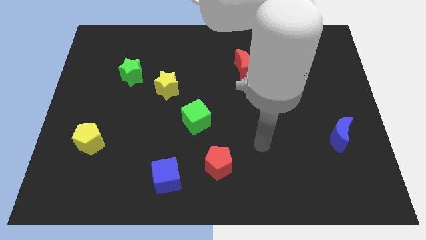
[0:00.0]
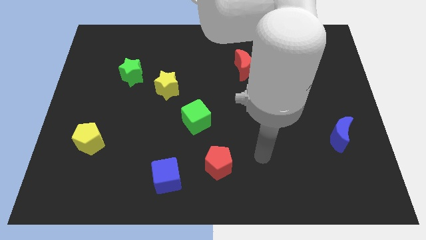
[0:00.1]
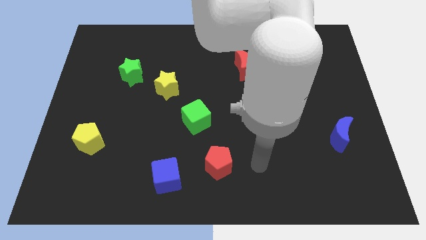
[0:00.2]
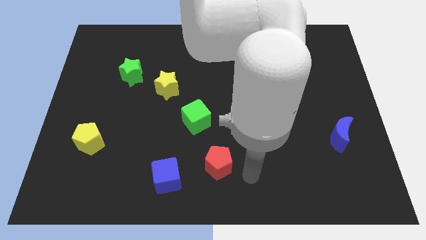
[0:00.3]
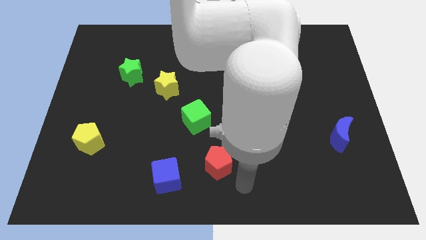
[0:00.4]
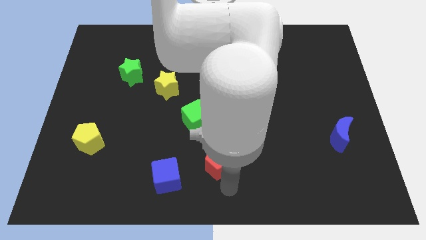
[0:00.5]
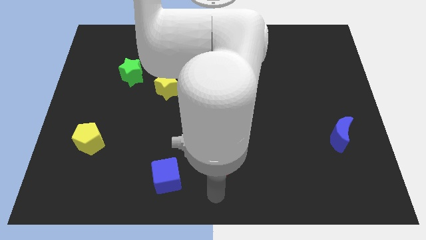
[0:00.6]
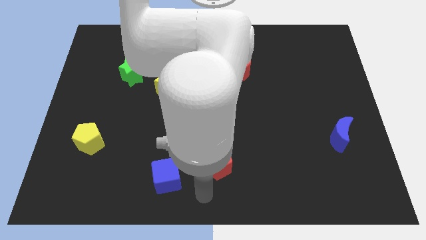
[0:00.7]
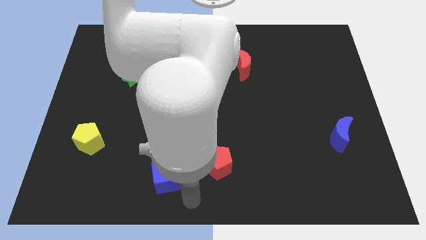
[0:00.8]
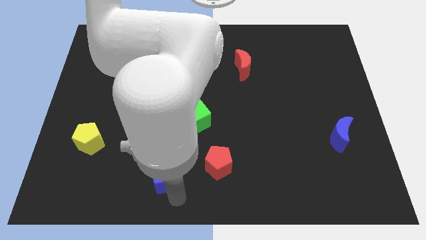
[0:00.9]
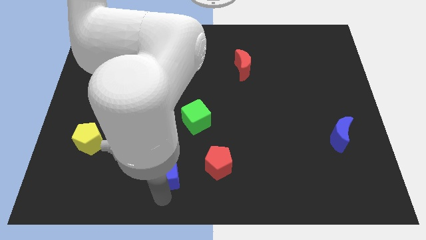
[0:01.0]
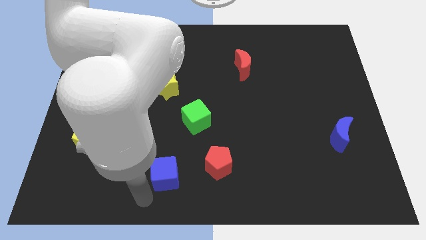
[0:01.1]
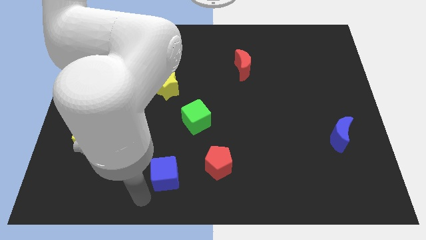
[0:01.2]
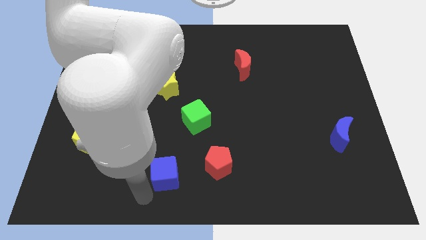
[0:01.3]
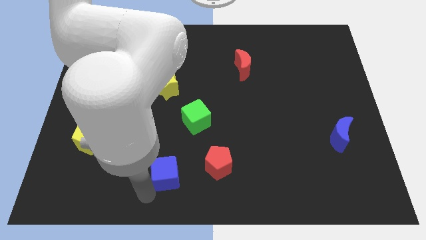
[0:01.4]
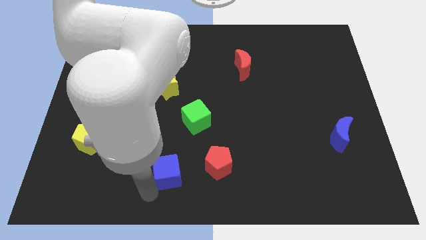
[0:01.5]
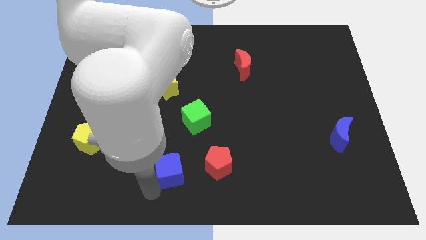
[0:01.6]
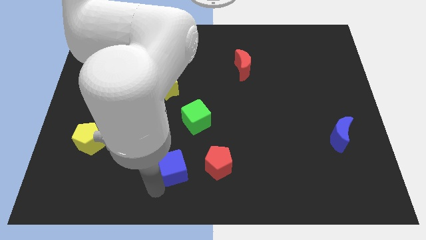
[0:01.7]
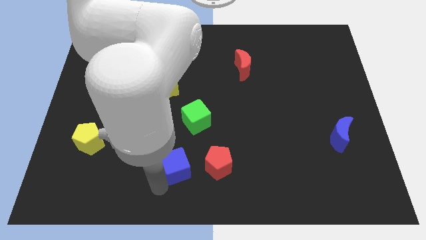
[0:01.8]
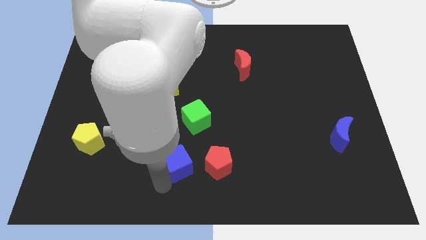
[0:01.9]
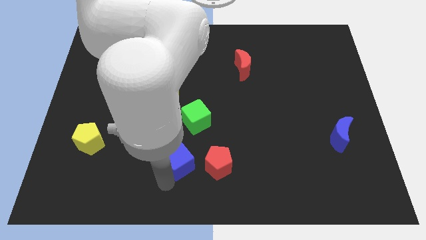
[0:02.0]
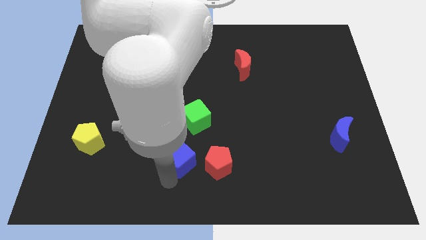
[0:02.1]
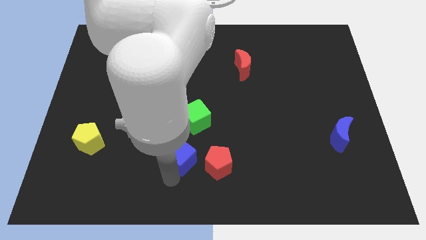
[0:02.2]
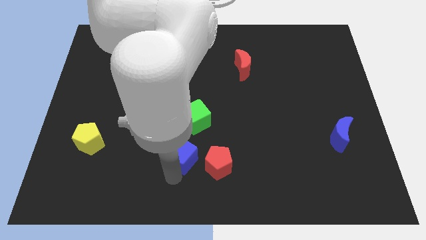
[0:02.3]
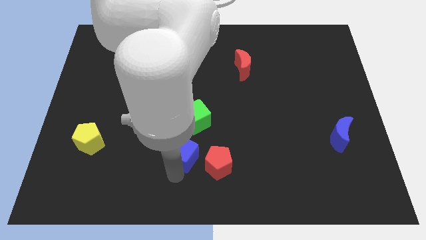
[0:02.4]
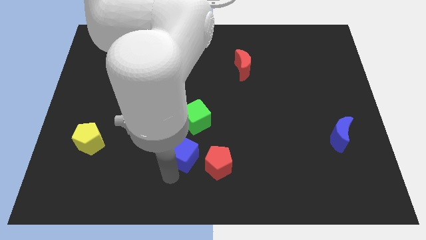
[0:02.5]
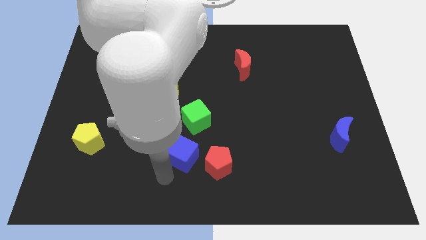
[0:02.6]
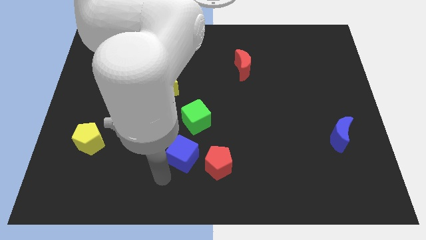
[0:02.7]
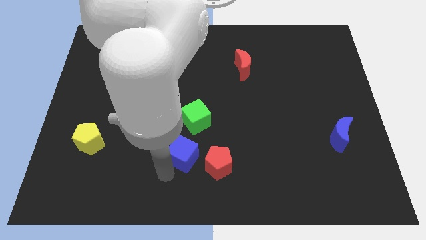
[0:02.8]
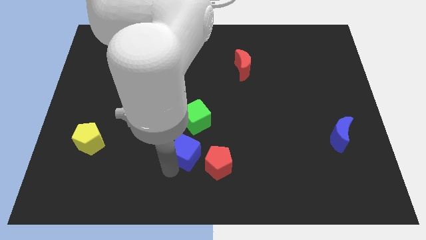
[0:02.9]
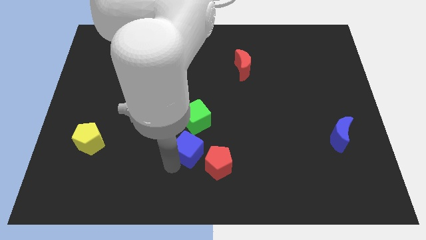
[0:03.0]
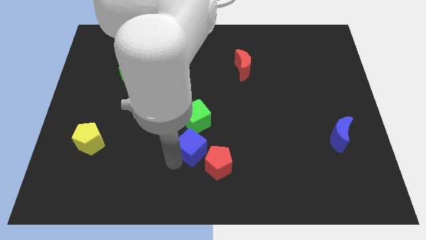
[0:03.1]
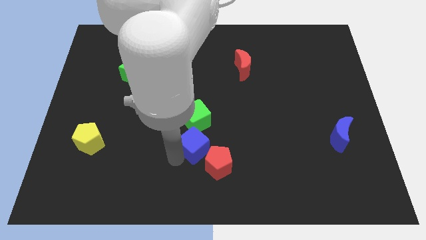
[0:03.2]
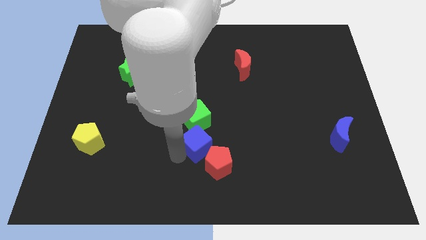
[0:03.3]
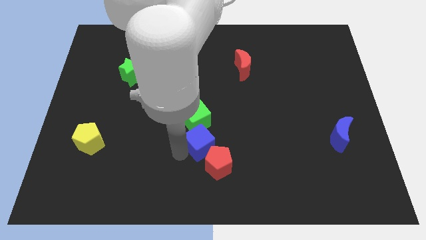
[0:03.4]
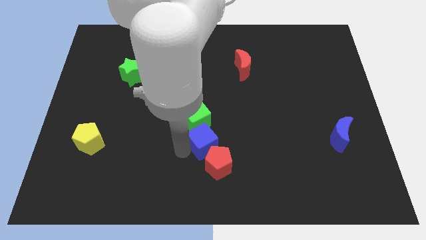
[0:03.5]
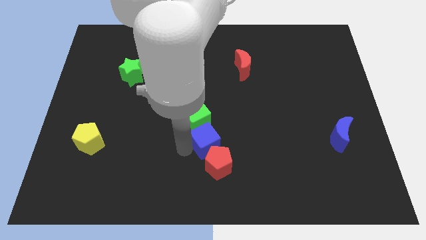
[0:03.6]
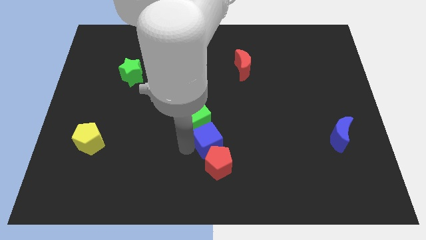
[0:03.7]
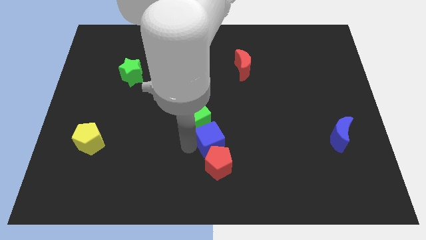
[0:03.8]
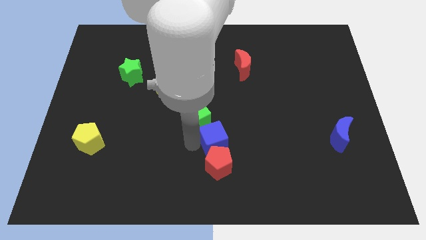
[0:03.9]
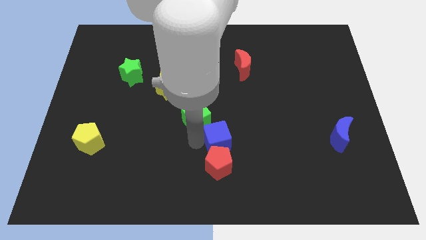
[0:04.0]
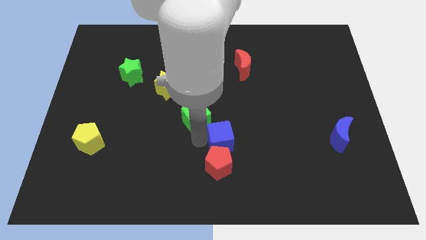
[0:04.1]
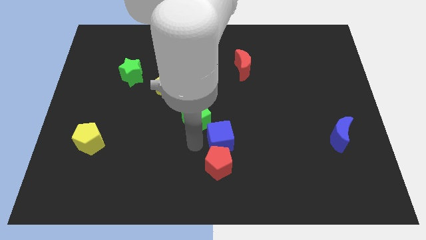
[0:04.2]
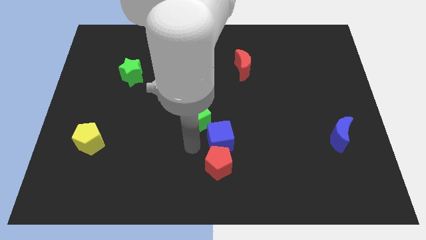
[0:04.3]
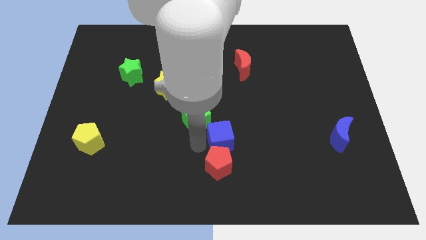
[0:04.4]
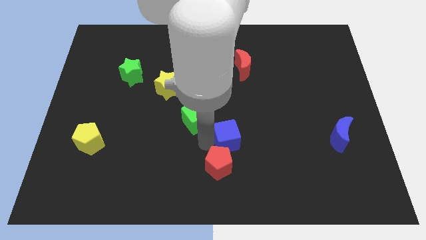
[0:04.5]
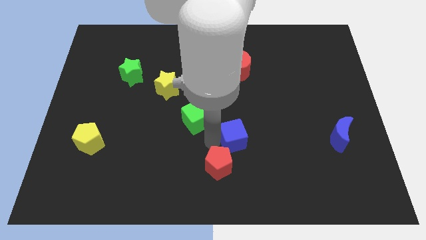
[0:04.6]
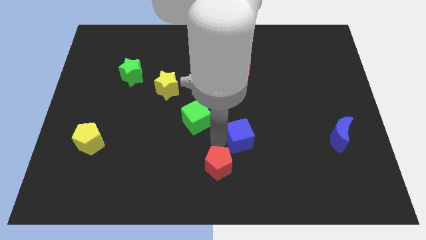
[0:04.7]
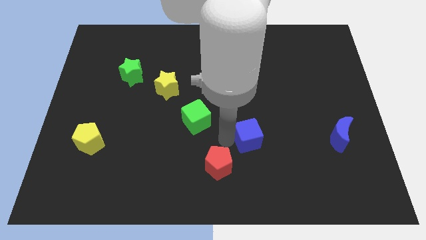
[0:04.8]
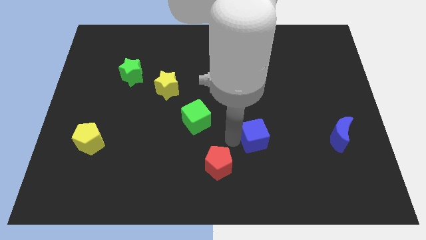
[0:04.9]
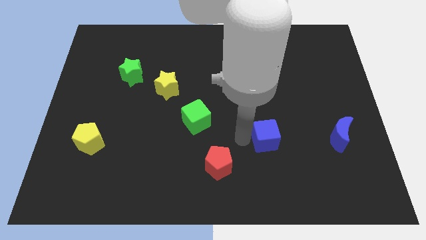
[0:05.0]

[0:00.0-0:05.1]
push the blue cube to the left of the blue moon

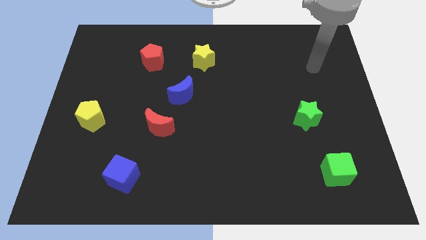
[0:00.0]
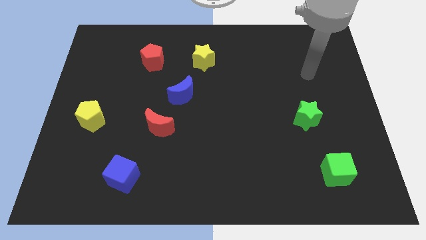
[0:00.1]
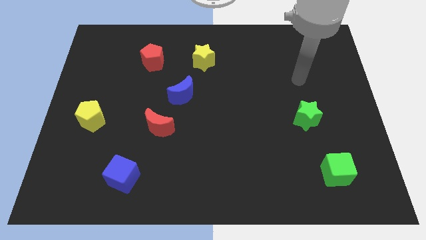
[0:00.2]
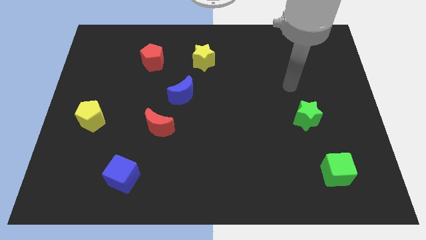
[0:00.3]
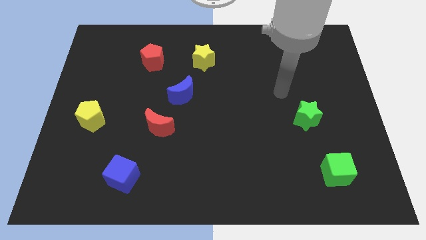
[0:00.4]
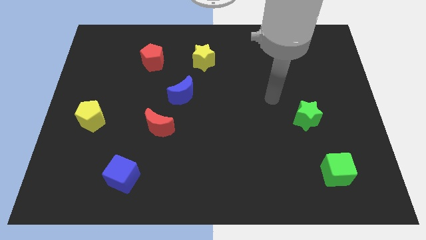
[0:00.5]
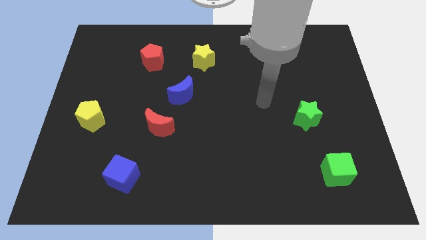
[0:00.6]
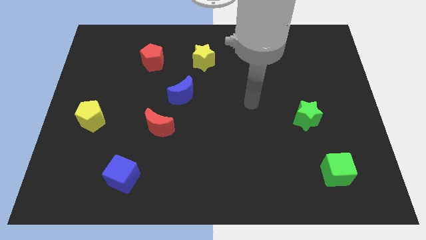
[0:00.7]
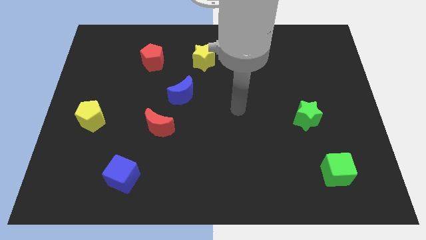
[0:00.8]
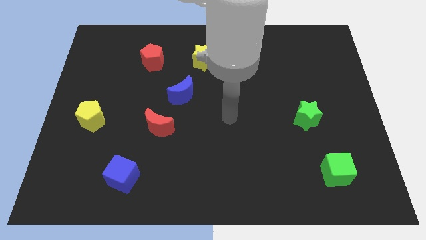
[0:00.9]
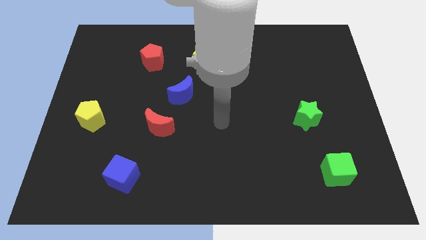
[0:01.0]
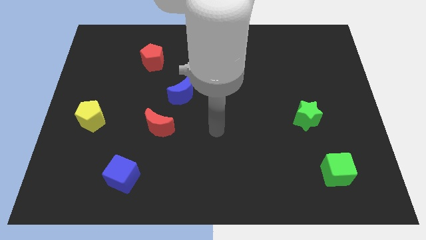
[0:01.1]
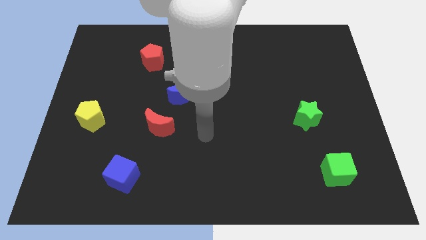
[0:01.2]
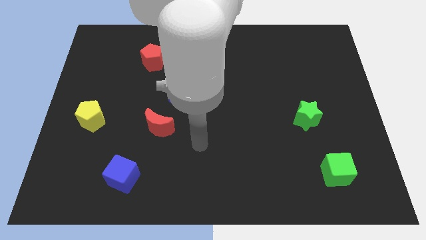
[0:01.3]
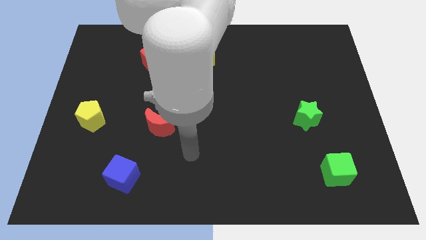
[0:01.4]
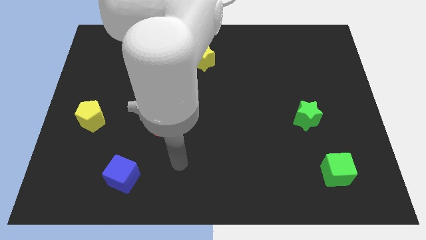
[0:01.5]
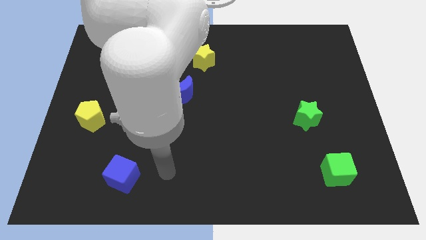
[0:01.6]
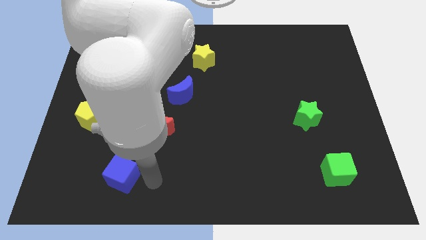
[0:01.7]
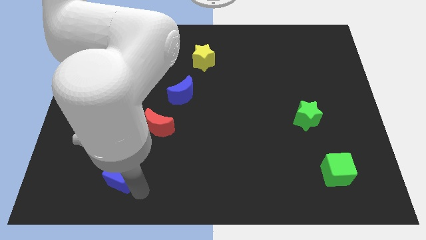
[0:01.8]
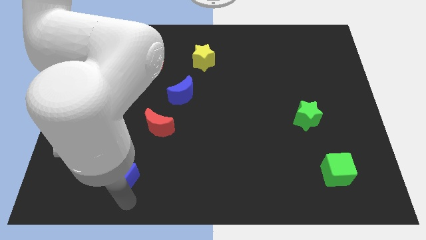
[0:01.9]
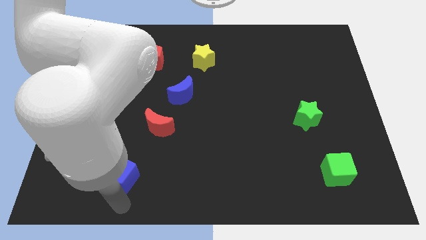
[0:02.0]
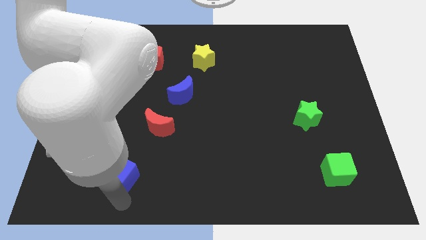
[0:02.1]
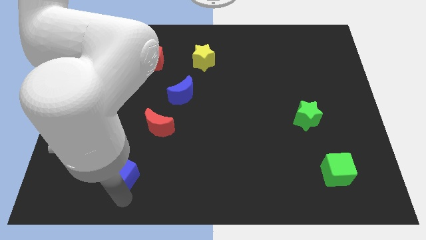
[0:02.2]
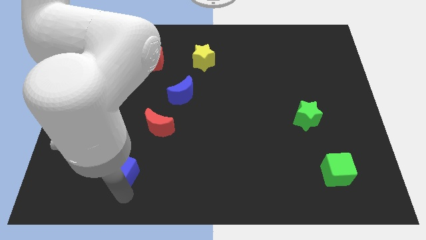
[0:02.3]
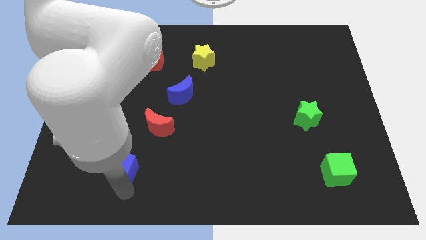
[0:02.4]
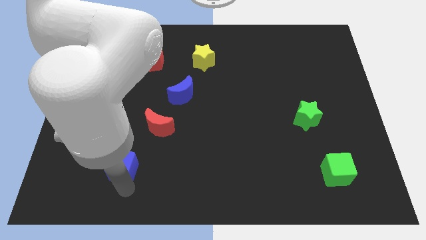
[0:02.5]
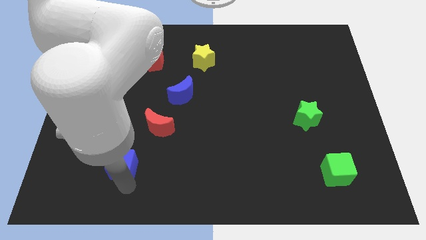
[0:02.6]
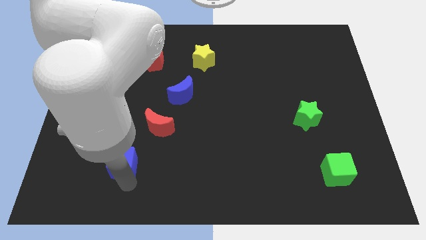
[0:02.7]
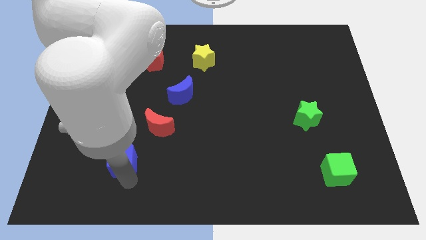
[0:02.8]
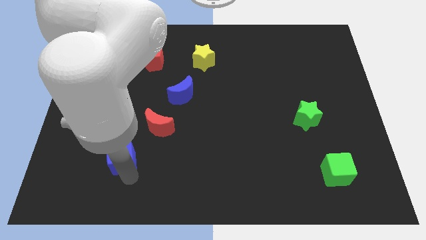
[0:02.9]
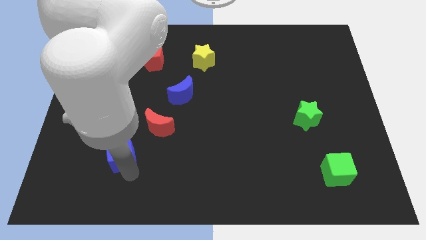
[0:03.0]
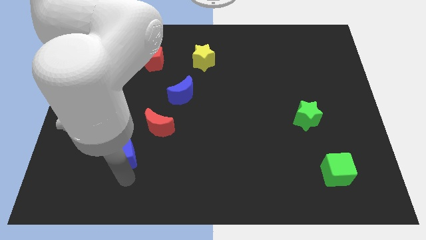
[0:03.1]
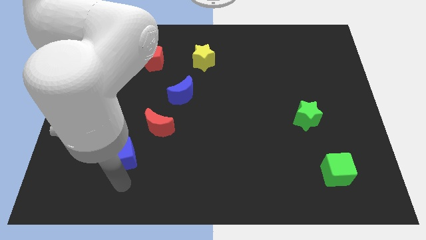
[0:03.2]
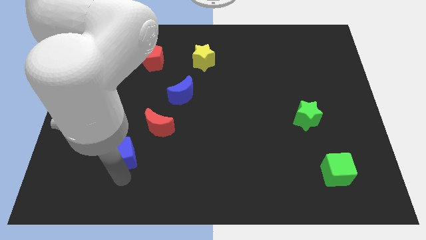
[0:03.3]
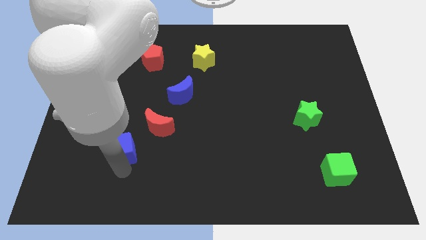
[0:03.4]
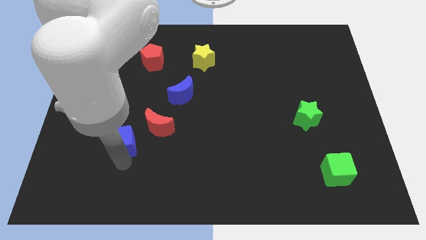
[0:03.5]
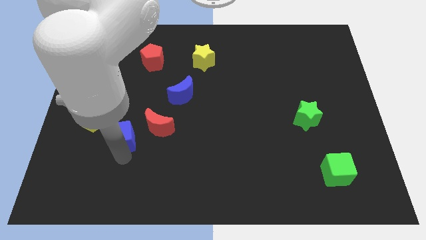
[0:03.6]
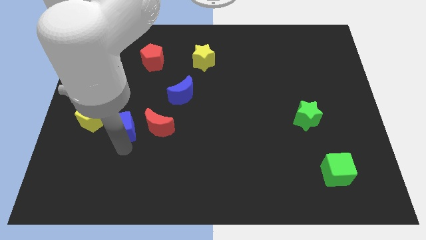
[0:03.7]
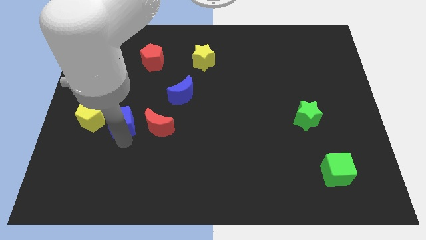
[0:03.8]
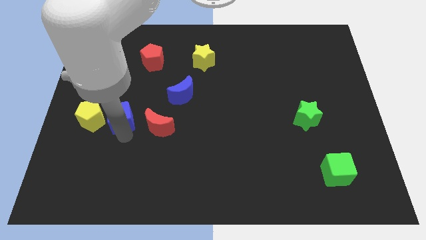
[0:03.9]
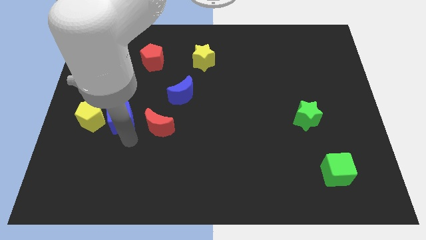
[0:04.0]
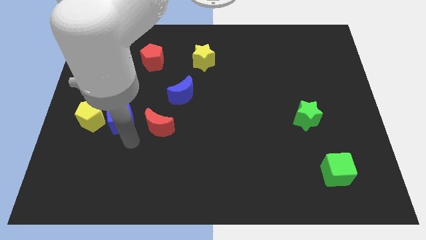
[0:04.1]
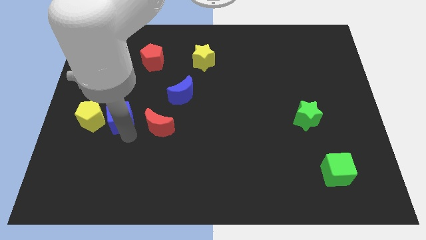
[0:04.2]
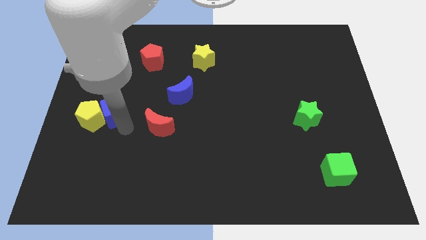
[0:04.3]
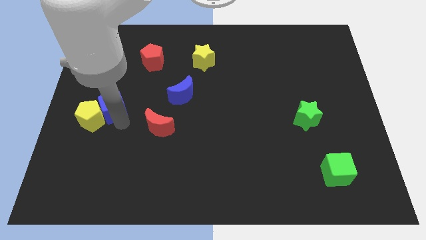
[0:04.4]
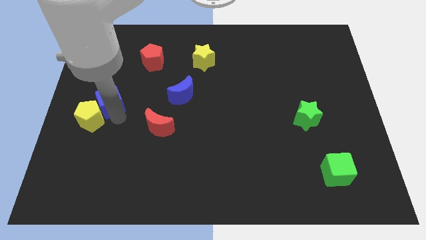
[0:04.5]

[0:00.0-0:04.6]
push the blue cube to the top of the yellow pentagon
